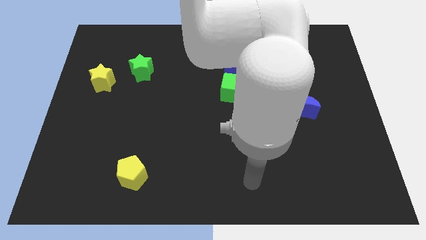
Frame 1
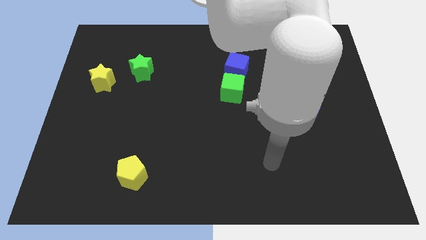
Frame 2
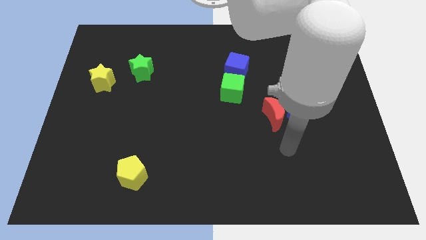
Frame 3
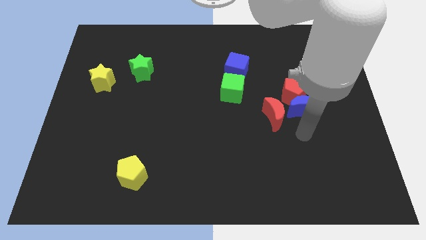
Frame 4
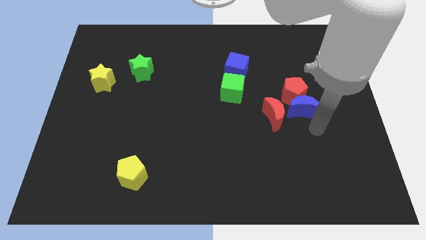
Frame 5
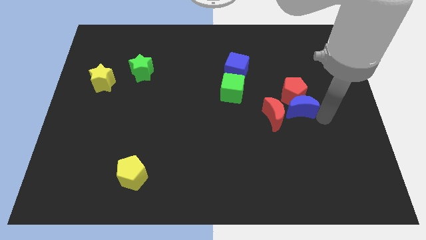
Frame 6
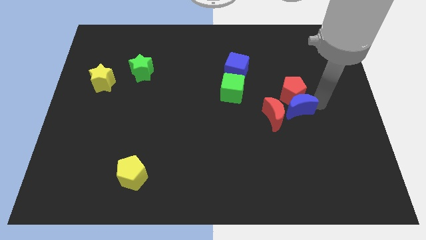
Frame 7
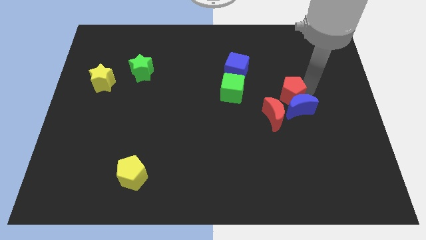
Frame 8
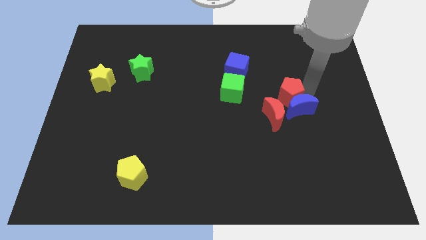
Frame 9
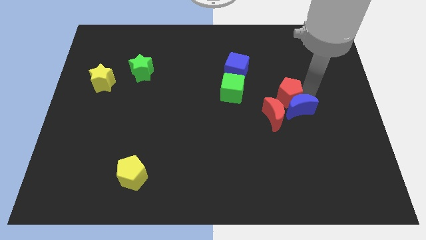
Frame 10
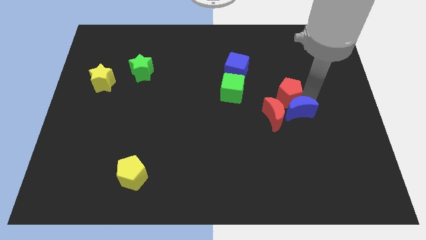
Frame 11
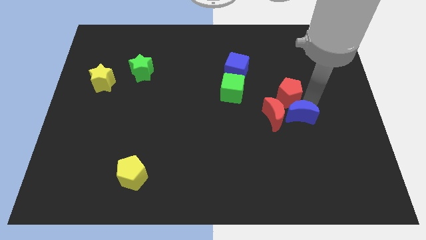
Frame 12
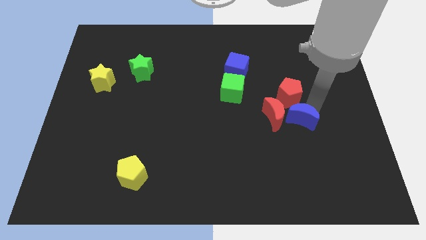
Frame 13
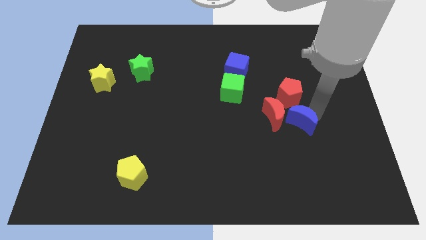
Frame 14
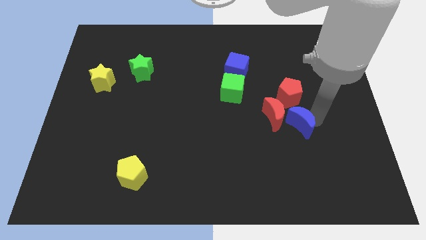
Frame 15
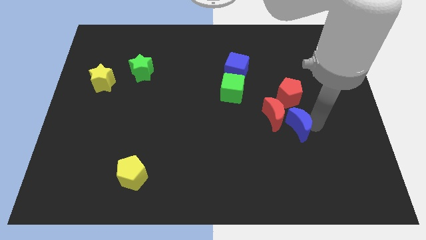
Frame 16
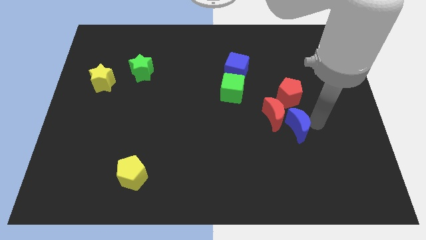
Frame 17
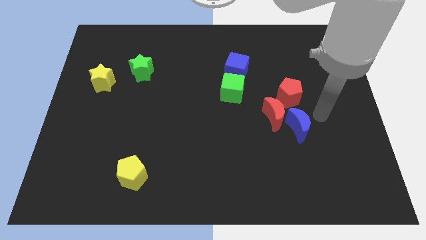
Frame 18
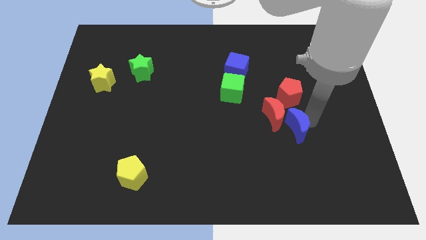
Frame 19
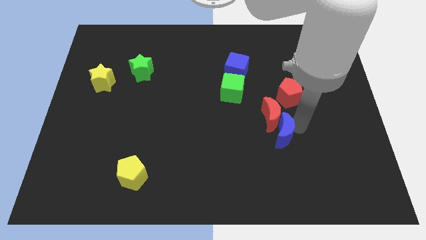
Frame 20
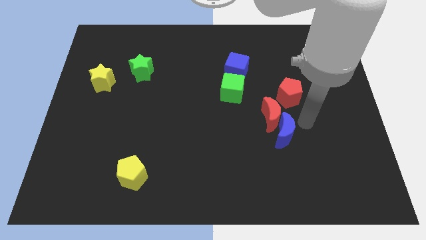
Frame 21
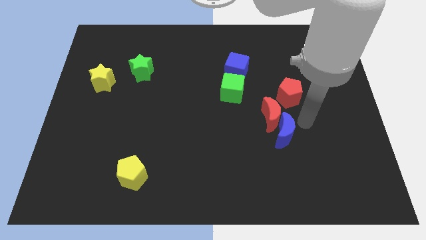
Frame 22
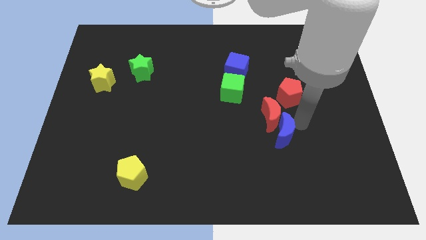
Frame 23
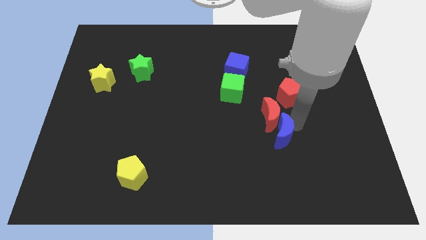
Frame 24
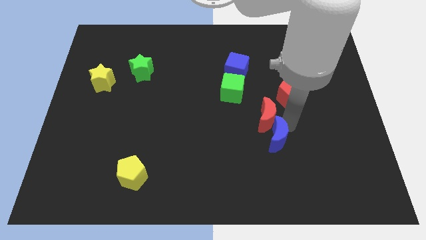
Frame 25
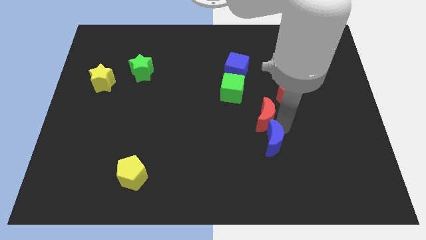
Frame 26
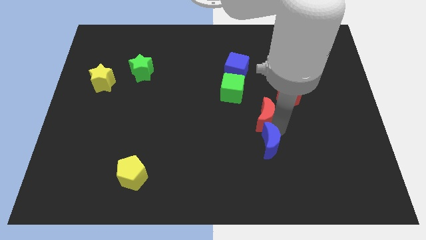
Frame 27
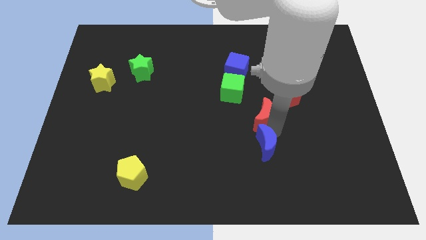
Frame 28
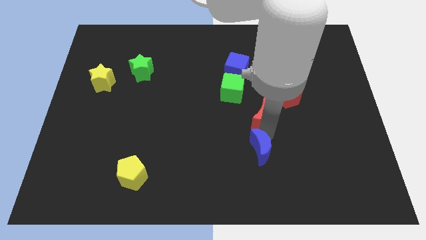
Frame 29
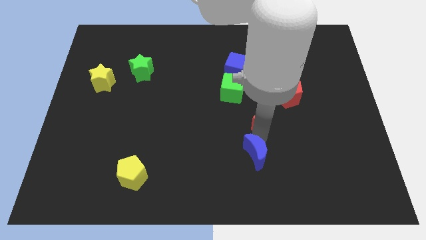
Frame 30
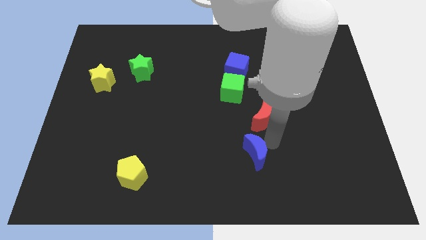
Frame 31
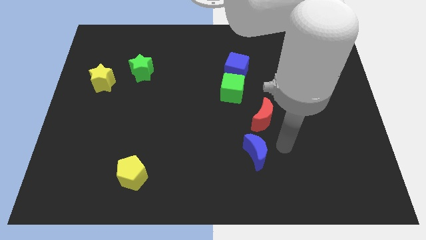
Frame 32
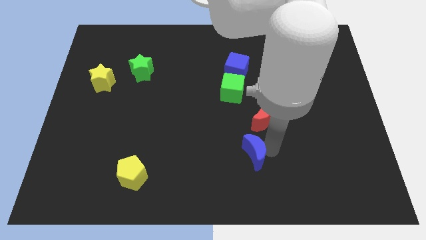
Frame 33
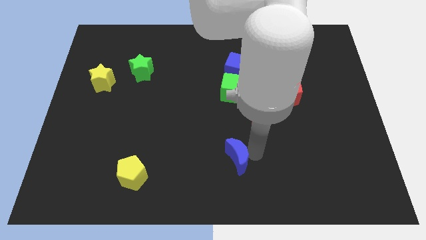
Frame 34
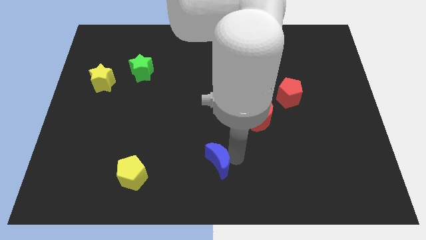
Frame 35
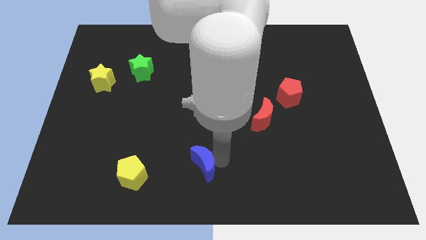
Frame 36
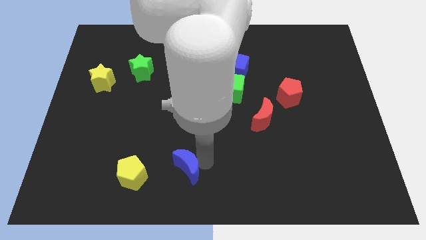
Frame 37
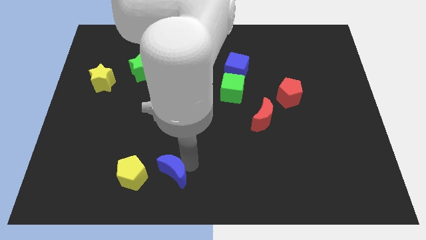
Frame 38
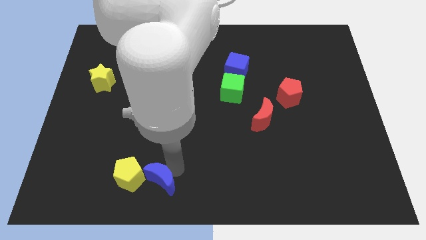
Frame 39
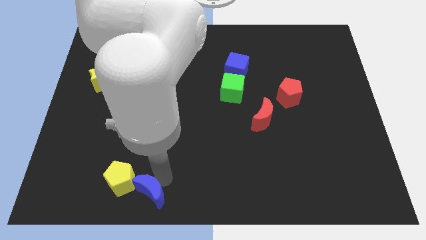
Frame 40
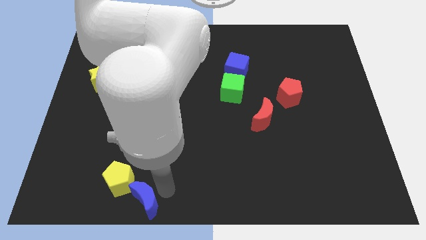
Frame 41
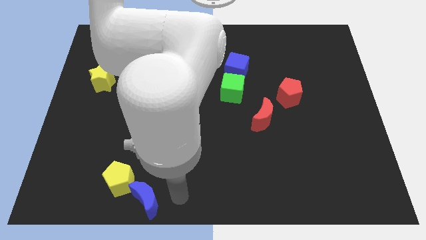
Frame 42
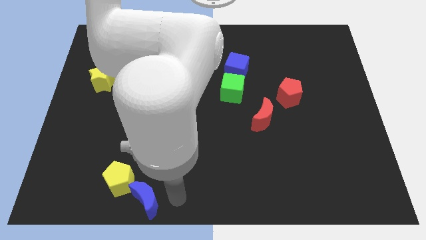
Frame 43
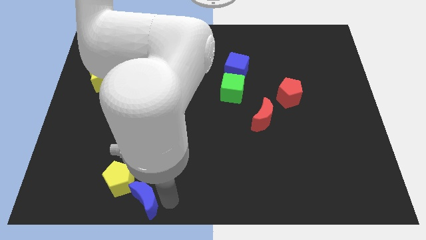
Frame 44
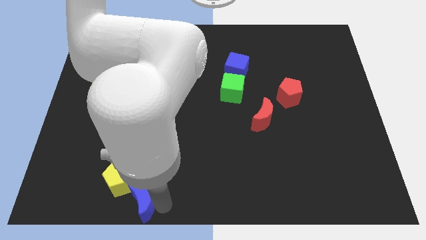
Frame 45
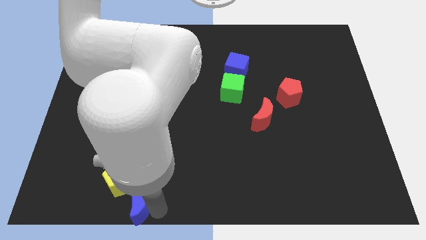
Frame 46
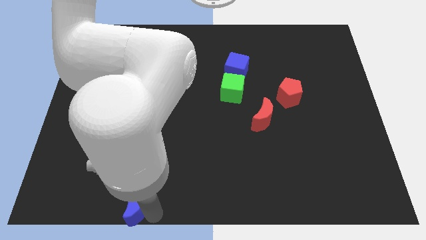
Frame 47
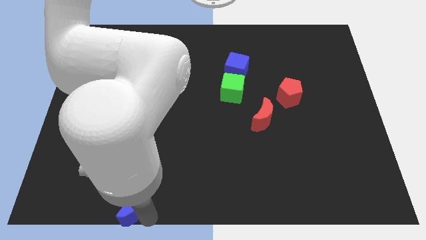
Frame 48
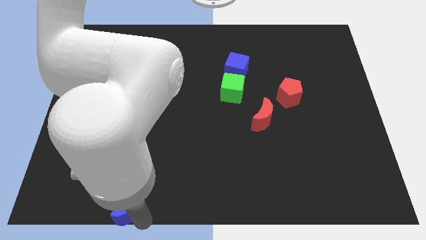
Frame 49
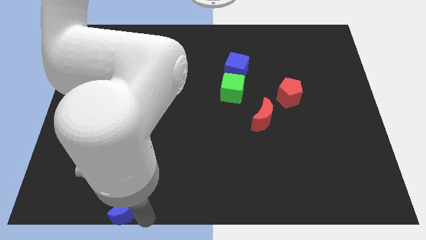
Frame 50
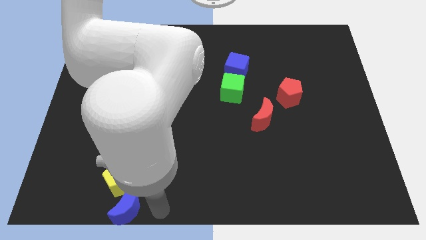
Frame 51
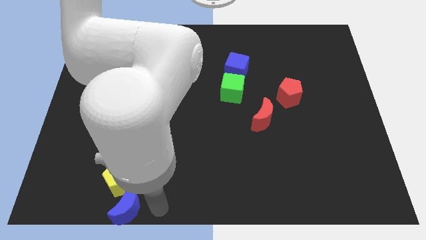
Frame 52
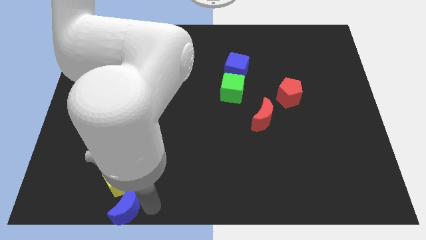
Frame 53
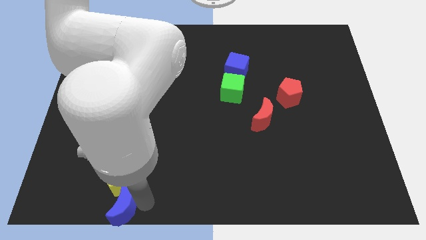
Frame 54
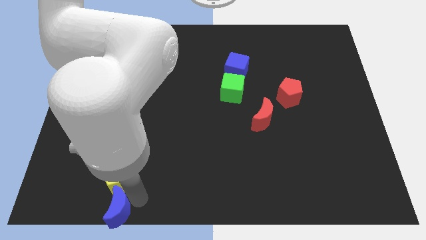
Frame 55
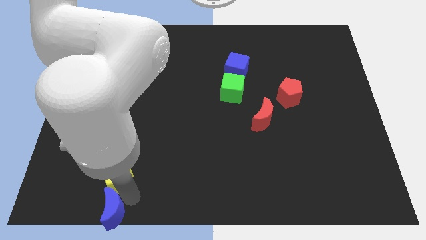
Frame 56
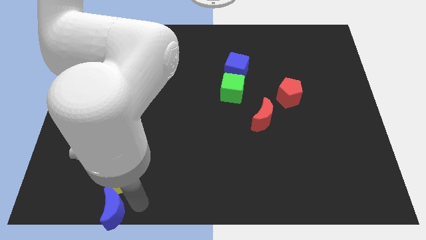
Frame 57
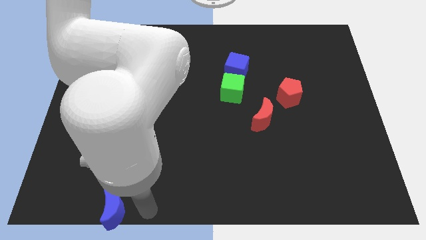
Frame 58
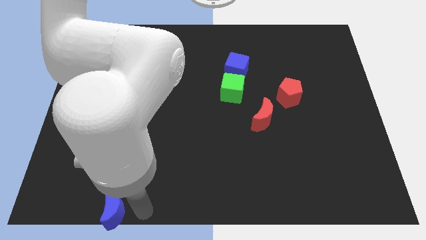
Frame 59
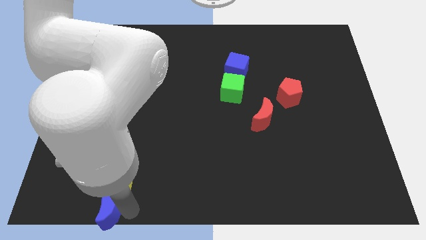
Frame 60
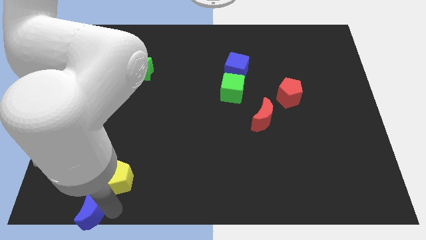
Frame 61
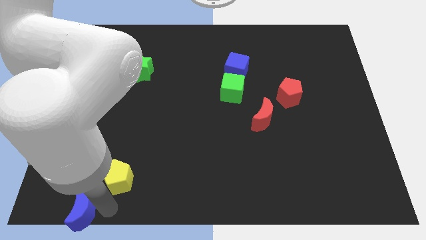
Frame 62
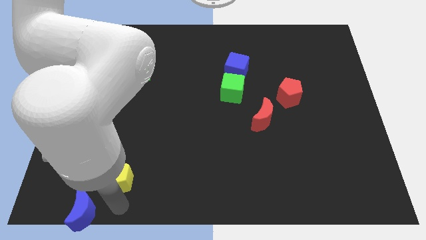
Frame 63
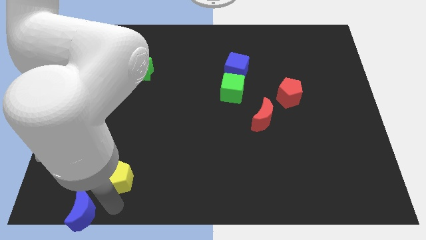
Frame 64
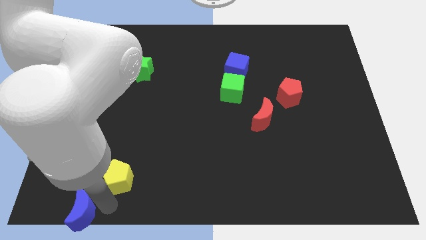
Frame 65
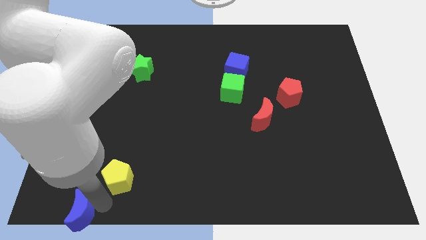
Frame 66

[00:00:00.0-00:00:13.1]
push the blue moon to the lower left corner
